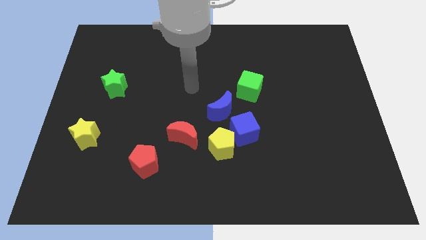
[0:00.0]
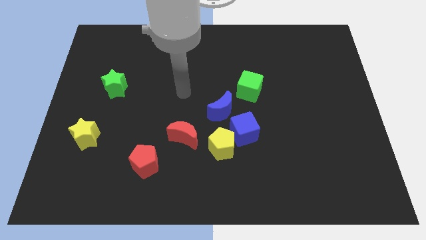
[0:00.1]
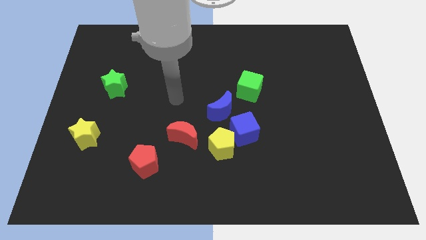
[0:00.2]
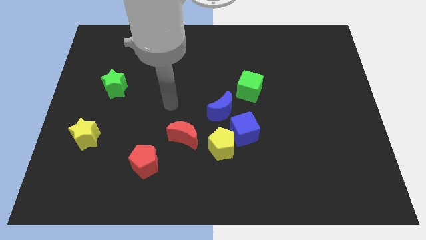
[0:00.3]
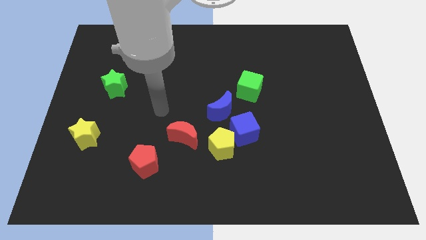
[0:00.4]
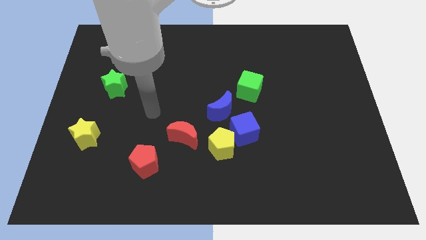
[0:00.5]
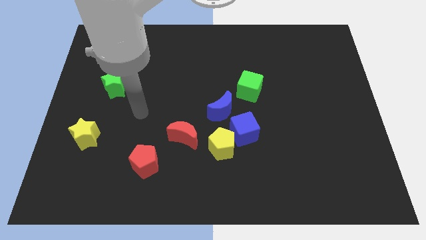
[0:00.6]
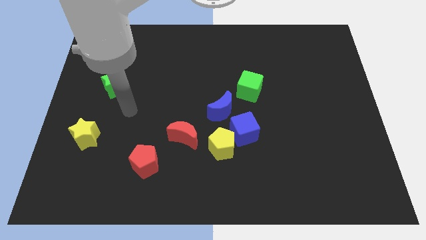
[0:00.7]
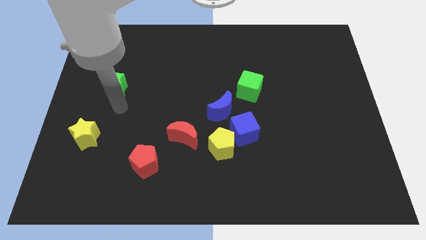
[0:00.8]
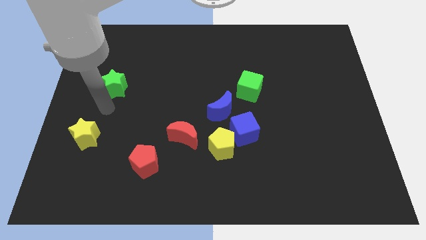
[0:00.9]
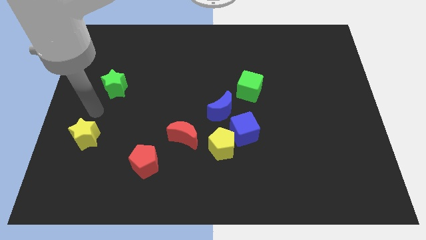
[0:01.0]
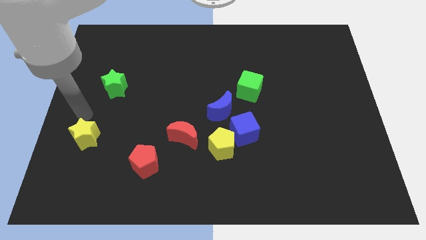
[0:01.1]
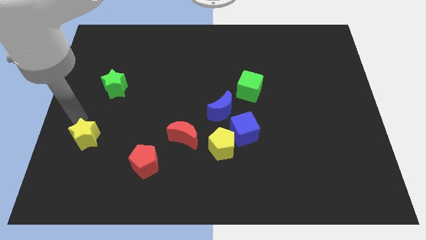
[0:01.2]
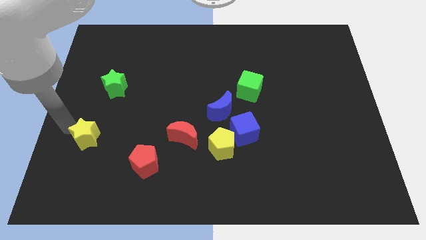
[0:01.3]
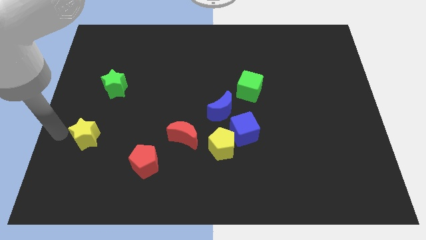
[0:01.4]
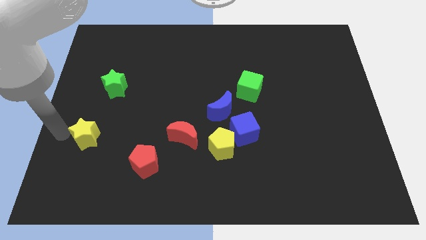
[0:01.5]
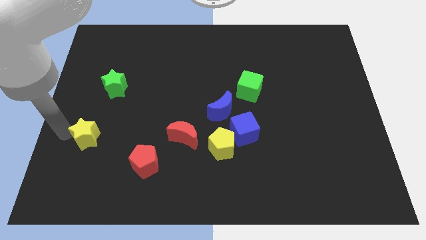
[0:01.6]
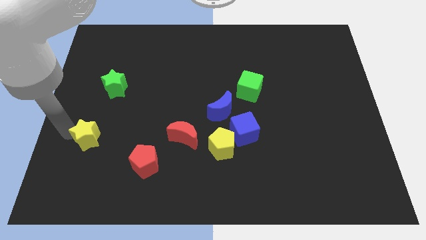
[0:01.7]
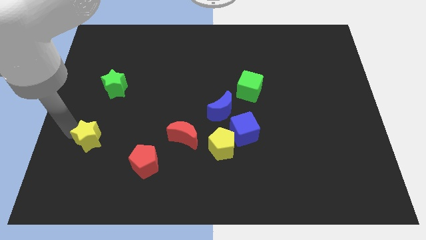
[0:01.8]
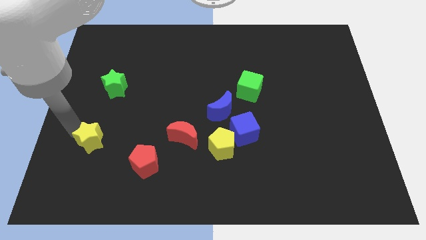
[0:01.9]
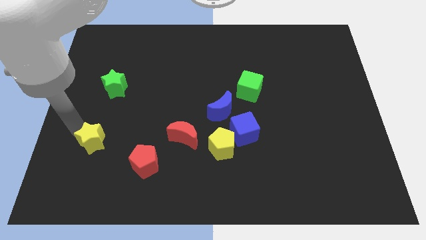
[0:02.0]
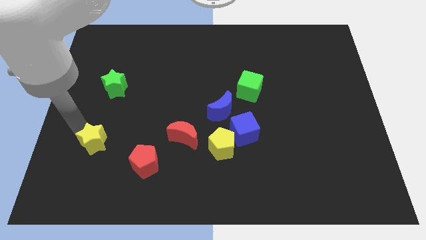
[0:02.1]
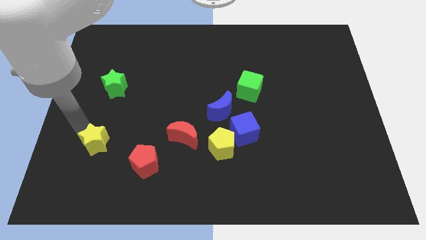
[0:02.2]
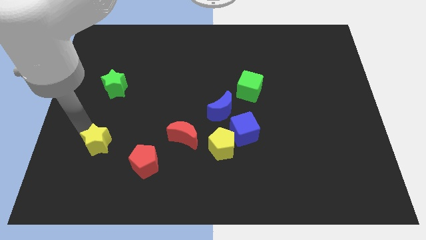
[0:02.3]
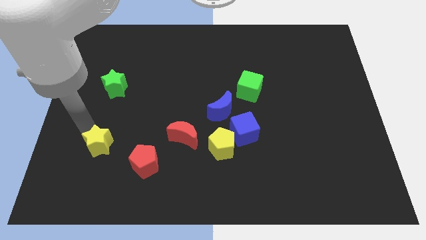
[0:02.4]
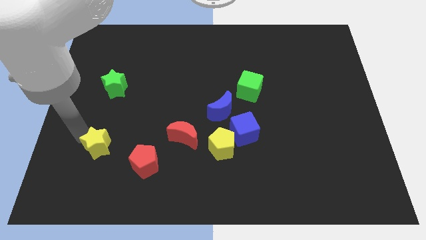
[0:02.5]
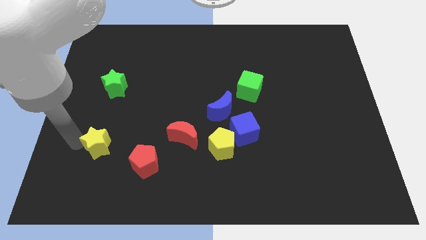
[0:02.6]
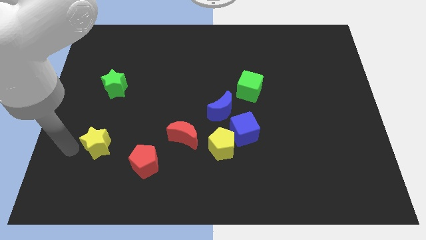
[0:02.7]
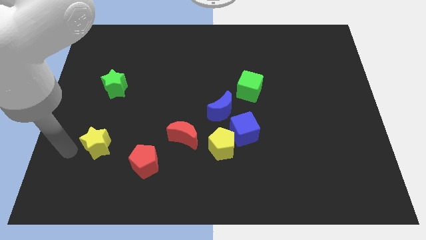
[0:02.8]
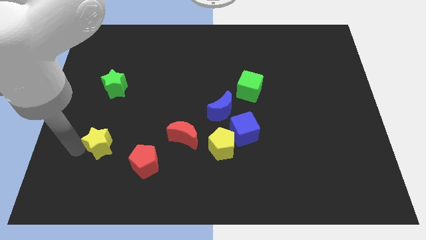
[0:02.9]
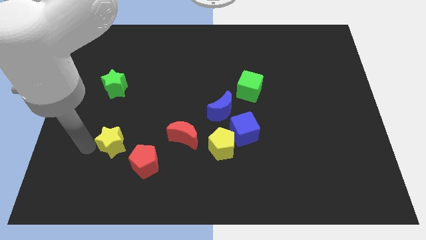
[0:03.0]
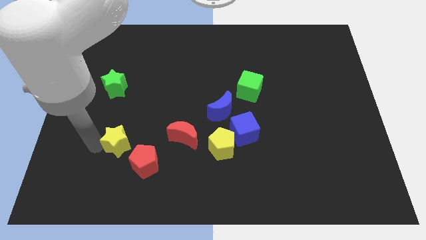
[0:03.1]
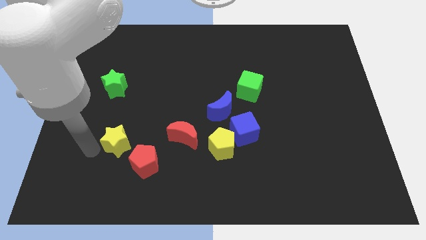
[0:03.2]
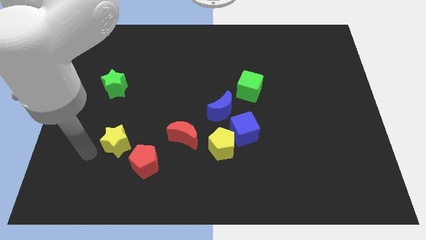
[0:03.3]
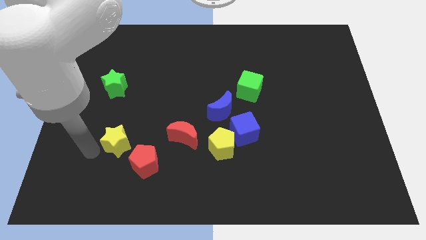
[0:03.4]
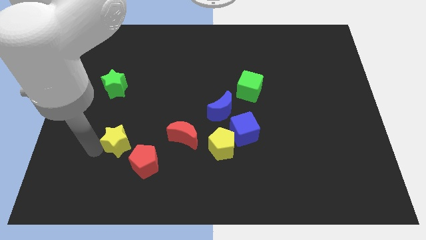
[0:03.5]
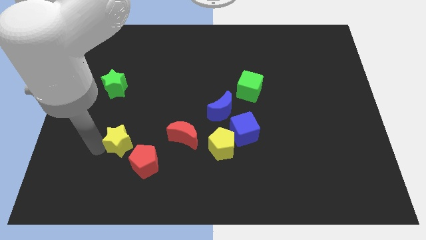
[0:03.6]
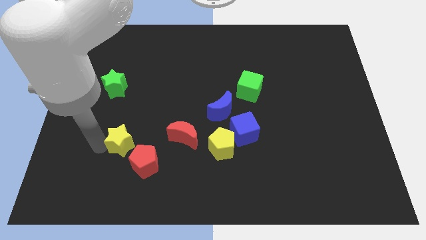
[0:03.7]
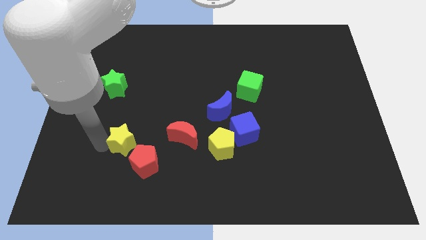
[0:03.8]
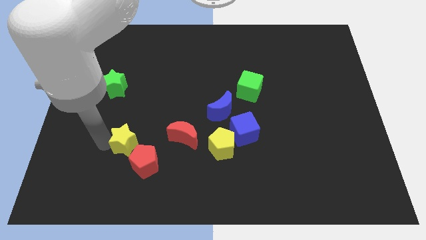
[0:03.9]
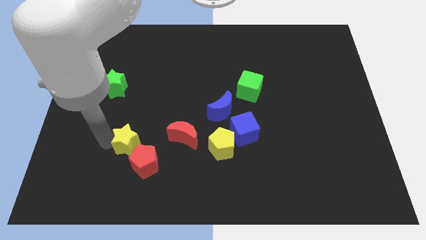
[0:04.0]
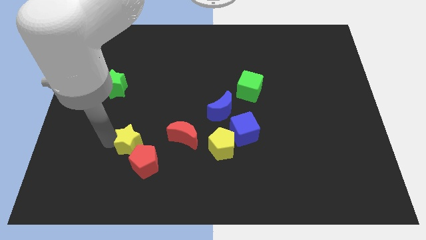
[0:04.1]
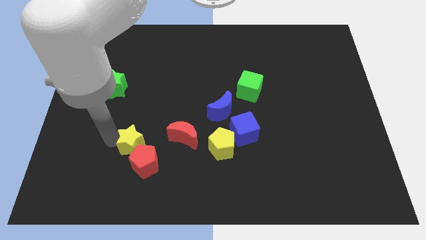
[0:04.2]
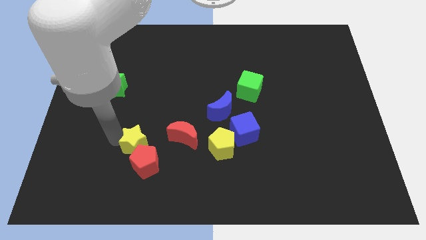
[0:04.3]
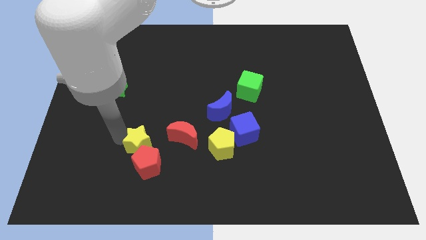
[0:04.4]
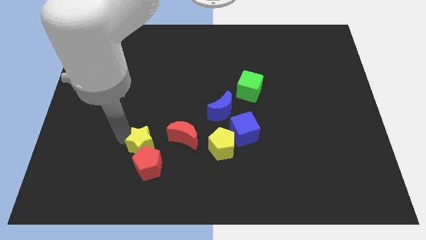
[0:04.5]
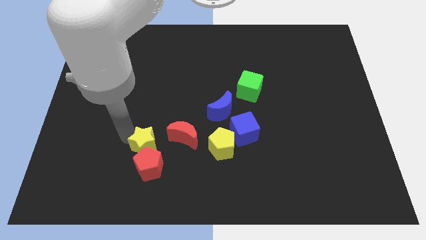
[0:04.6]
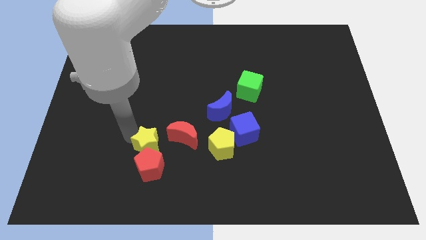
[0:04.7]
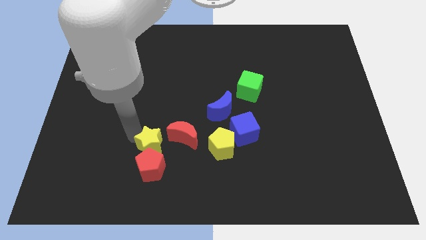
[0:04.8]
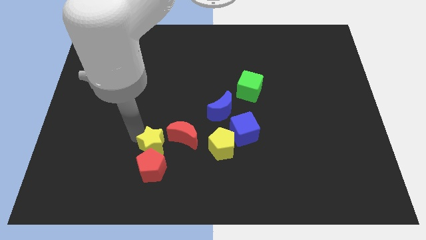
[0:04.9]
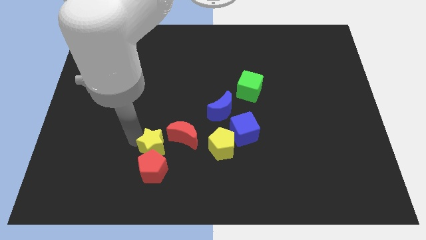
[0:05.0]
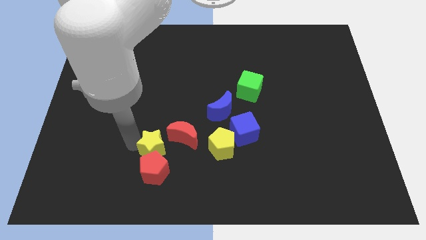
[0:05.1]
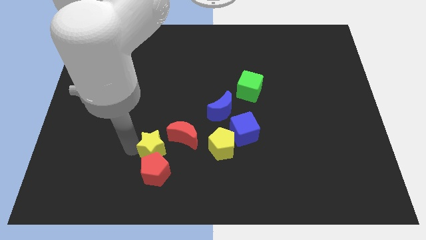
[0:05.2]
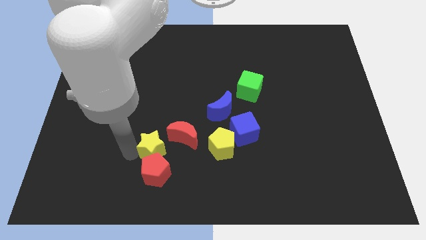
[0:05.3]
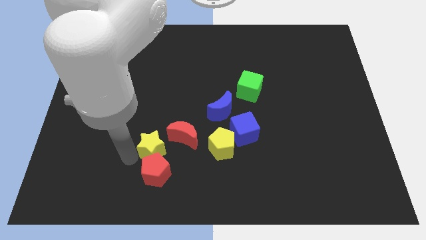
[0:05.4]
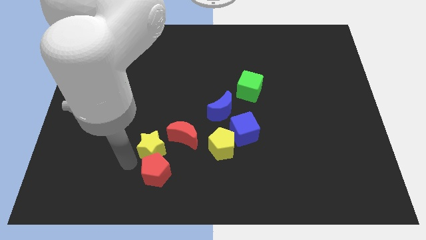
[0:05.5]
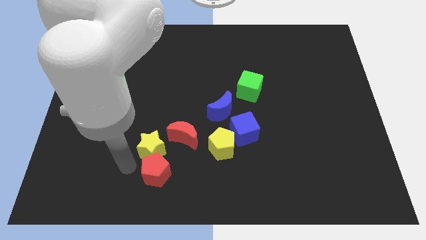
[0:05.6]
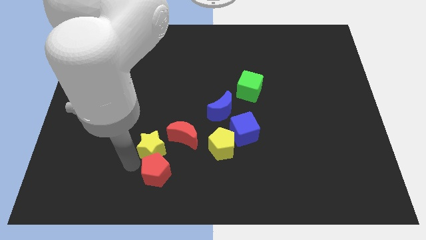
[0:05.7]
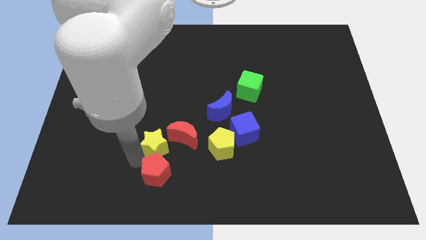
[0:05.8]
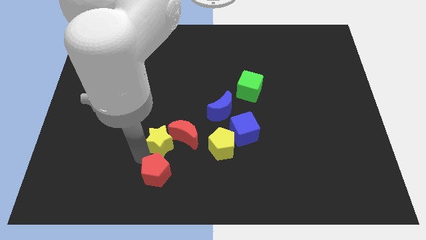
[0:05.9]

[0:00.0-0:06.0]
put the yellow star next to the red moon

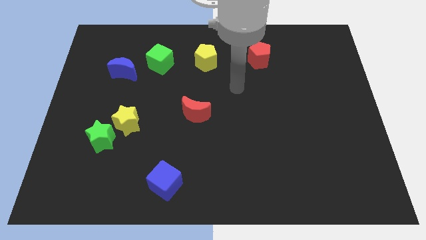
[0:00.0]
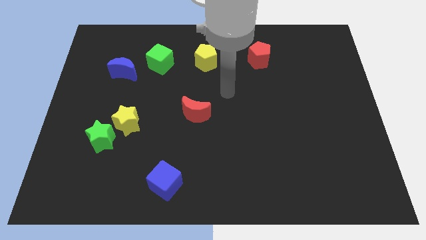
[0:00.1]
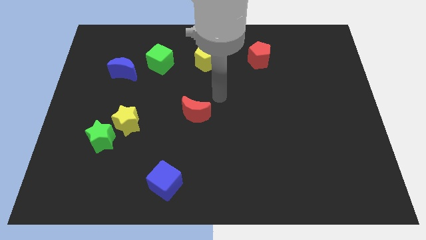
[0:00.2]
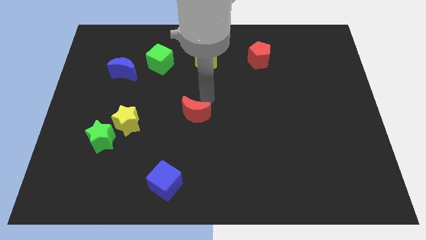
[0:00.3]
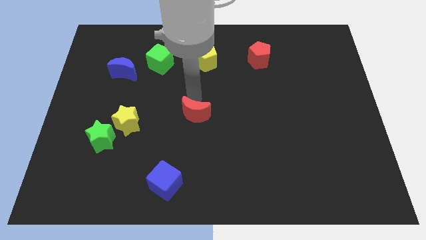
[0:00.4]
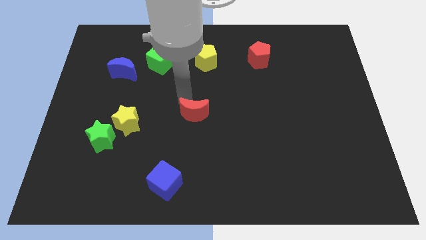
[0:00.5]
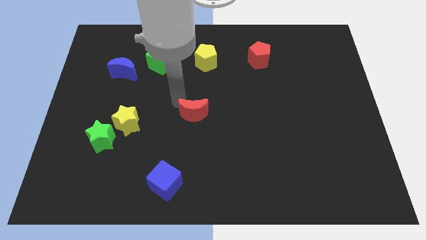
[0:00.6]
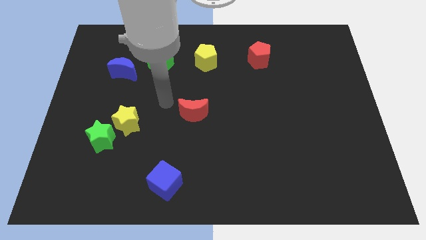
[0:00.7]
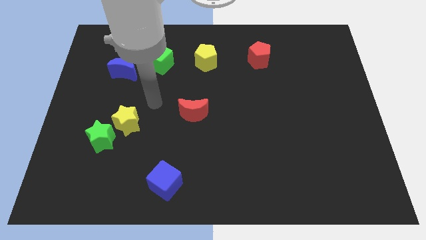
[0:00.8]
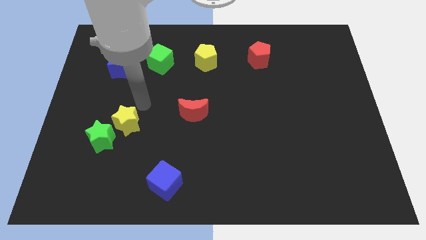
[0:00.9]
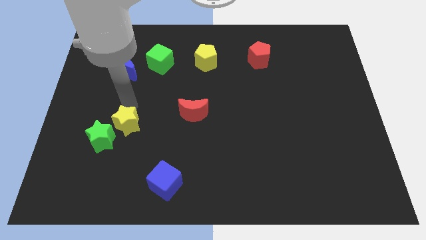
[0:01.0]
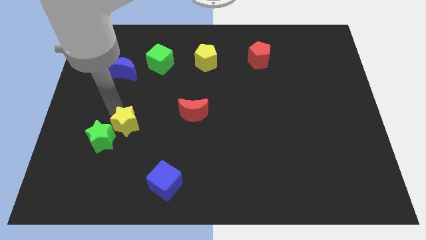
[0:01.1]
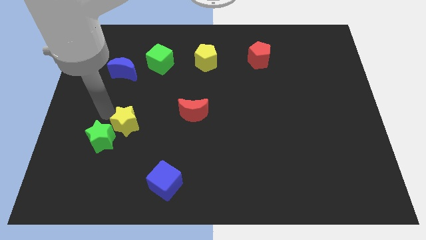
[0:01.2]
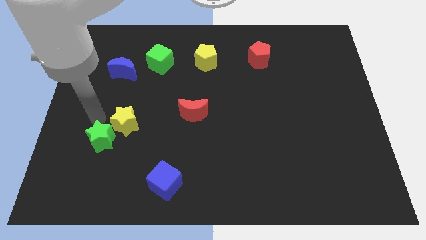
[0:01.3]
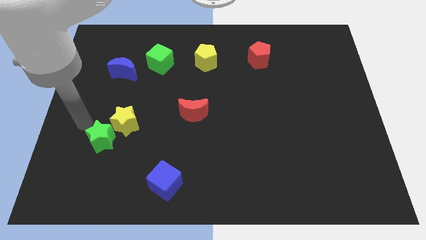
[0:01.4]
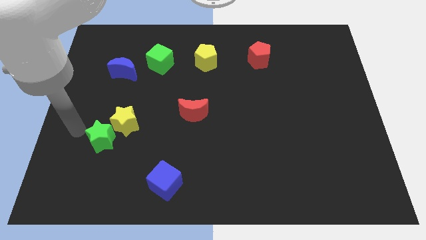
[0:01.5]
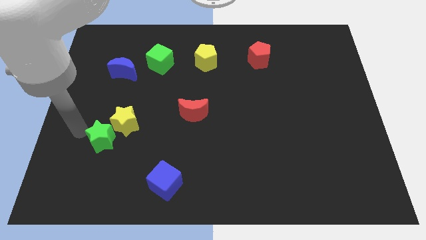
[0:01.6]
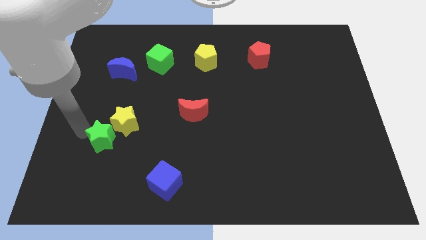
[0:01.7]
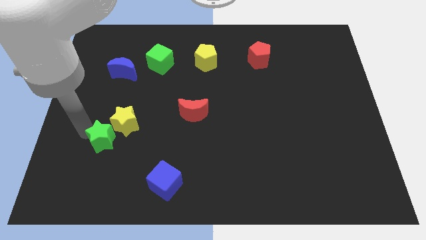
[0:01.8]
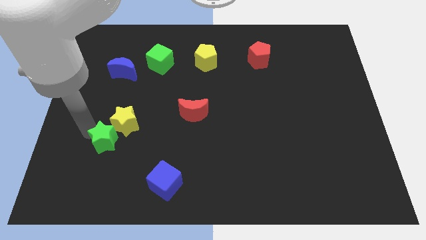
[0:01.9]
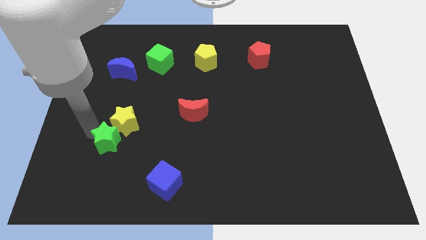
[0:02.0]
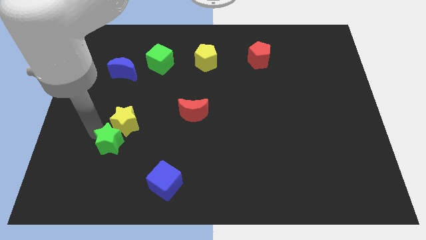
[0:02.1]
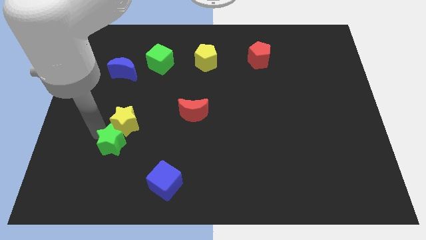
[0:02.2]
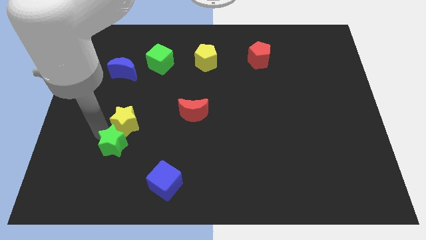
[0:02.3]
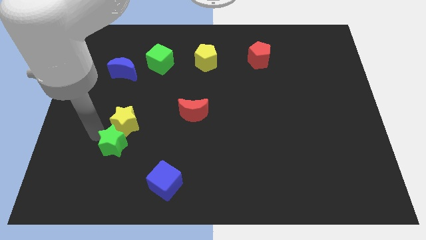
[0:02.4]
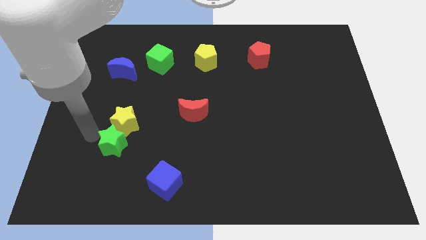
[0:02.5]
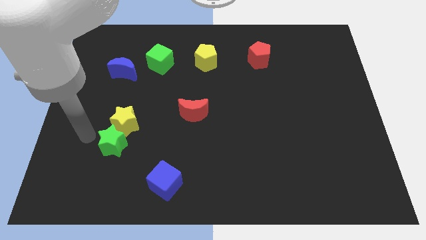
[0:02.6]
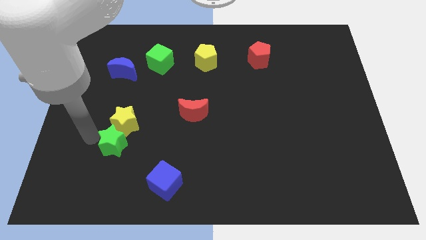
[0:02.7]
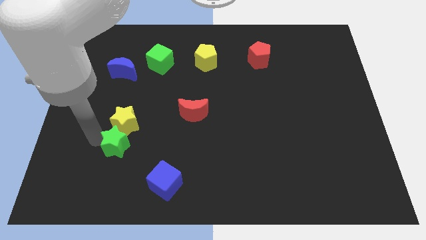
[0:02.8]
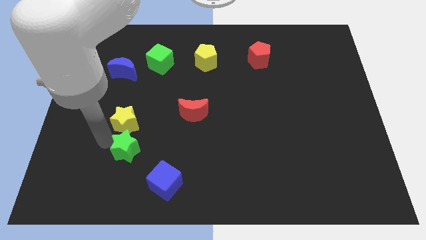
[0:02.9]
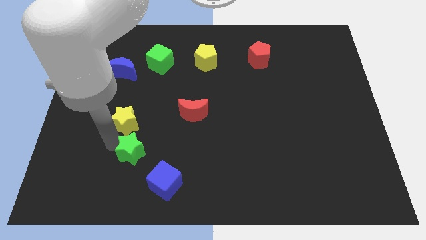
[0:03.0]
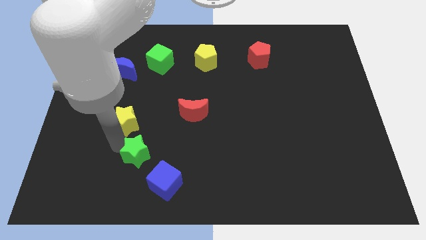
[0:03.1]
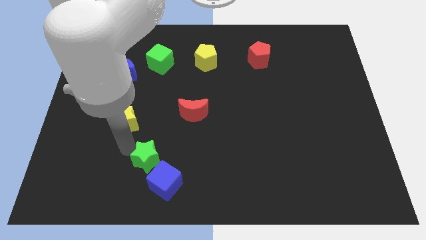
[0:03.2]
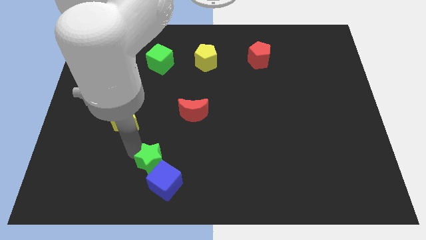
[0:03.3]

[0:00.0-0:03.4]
slide the green star close to the blue cube
